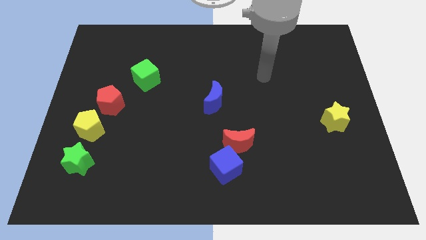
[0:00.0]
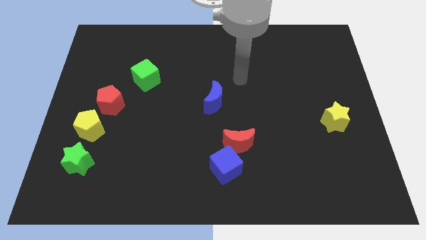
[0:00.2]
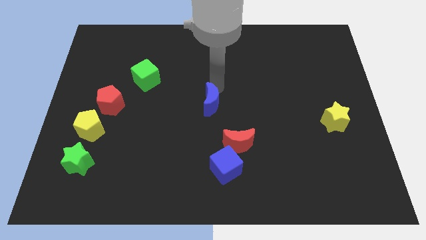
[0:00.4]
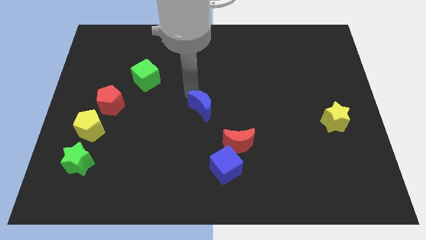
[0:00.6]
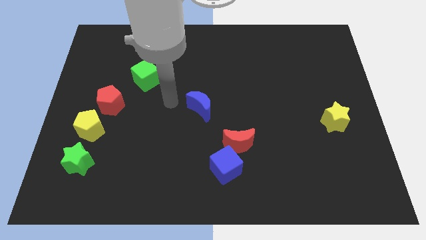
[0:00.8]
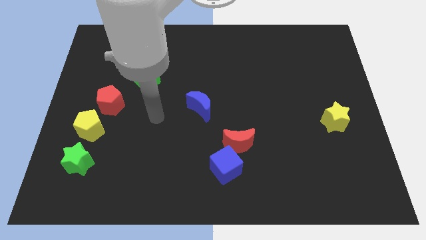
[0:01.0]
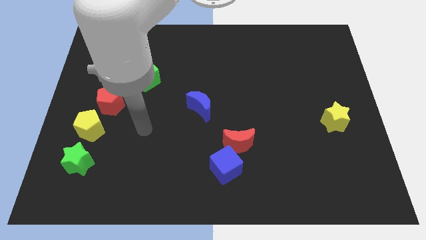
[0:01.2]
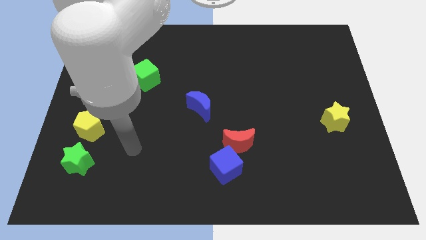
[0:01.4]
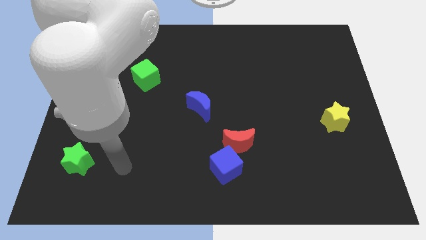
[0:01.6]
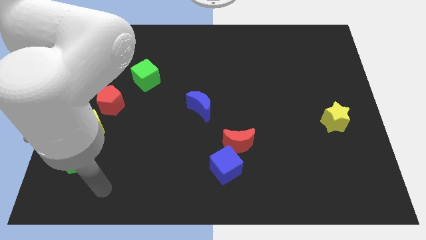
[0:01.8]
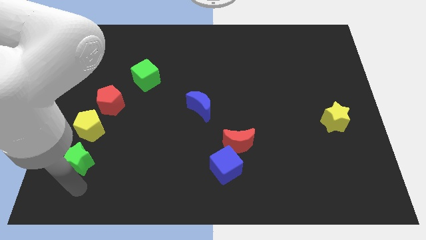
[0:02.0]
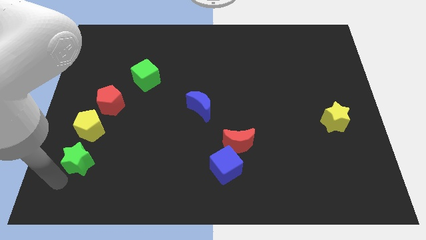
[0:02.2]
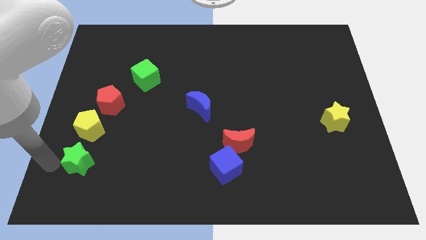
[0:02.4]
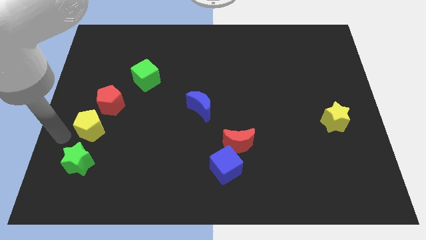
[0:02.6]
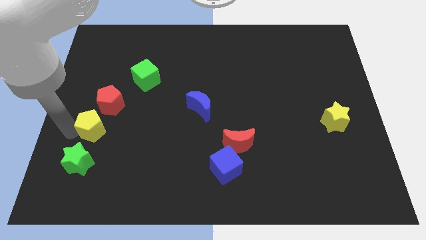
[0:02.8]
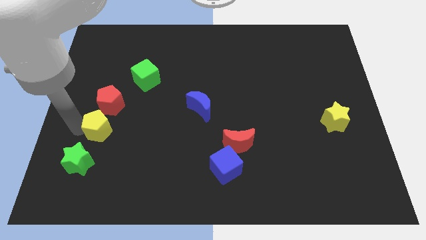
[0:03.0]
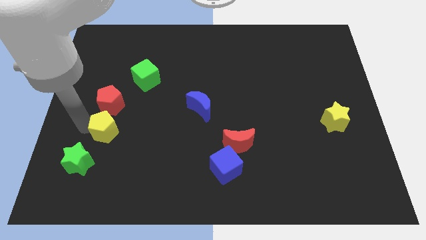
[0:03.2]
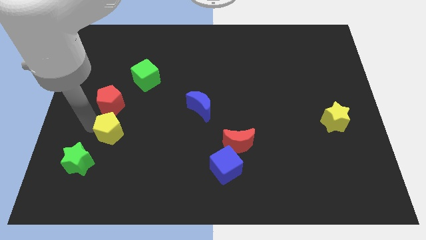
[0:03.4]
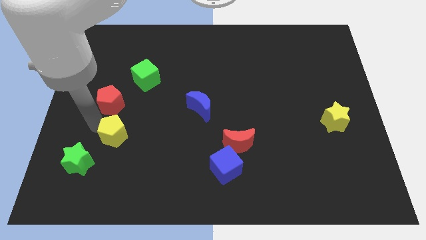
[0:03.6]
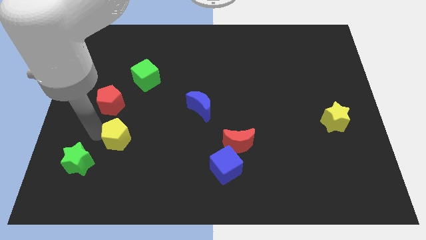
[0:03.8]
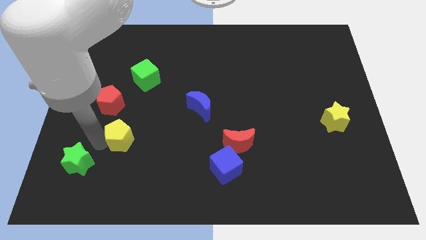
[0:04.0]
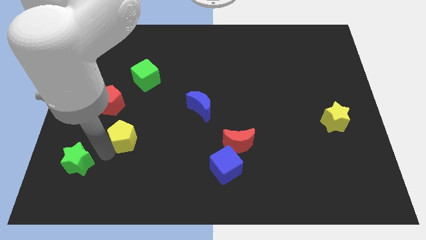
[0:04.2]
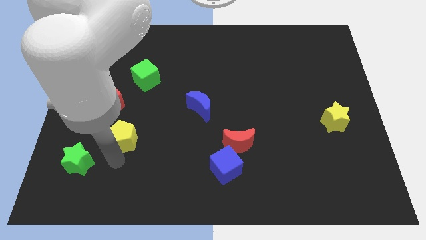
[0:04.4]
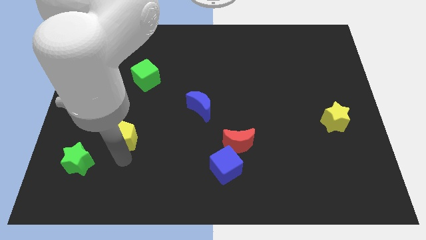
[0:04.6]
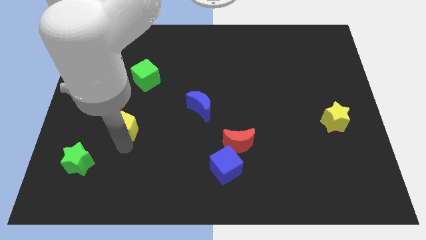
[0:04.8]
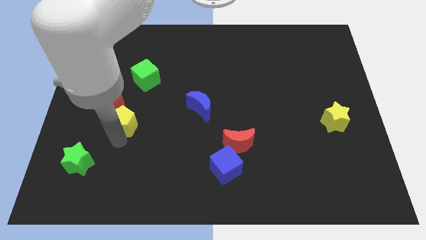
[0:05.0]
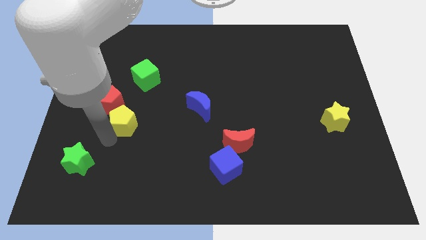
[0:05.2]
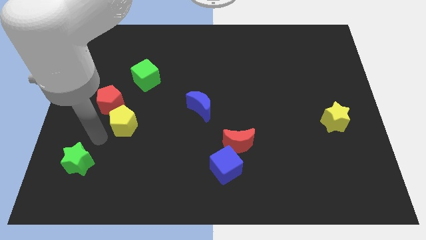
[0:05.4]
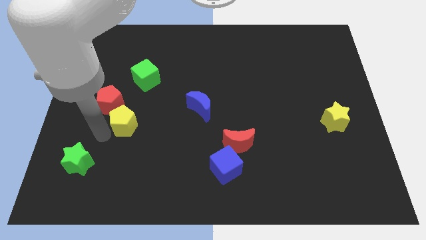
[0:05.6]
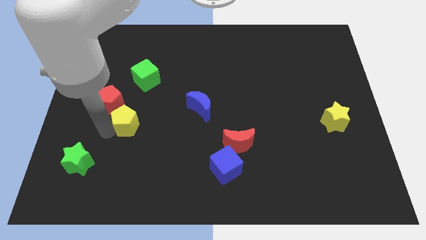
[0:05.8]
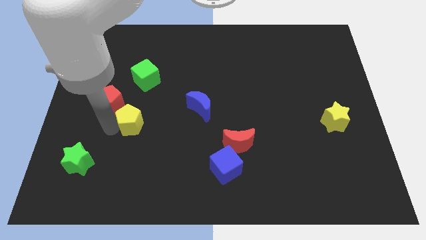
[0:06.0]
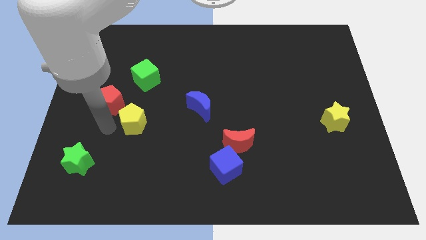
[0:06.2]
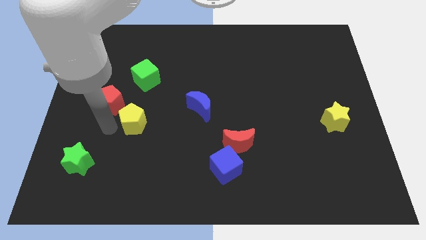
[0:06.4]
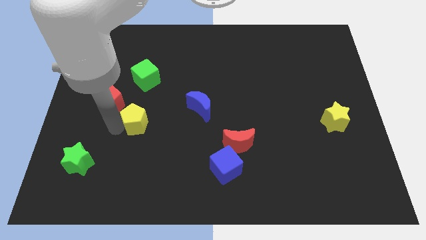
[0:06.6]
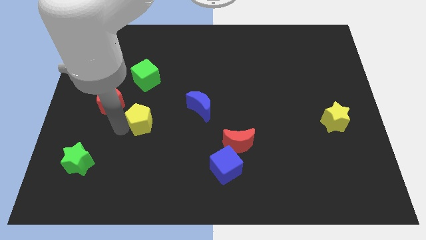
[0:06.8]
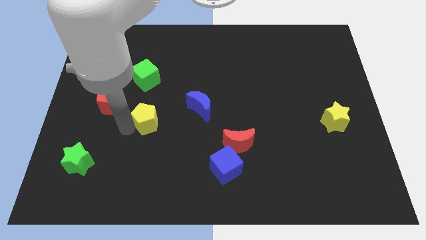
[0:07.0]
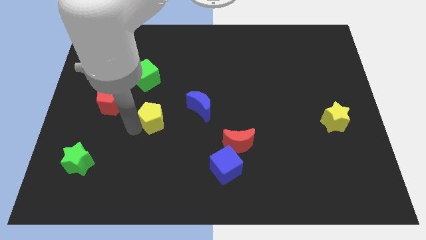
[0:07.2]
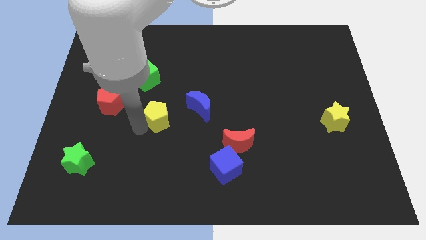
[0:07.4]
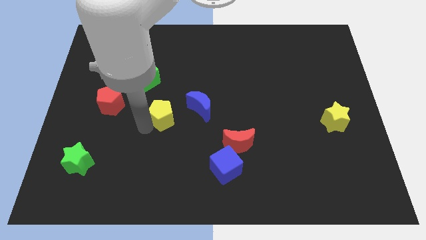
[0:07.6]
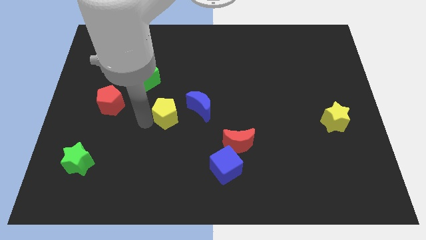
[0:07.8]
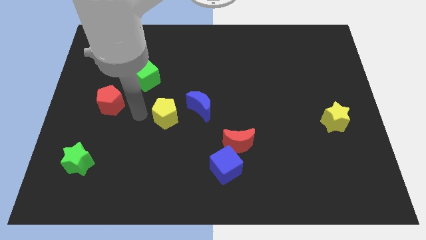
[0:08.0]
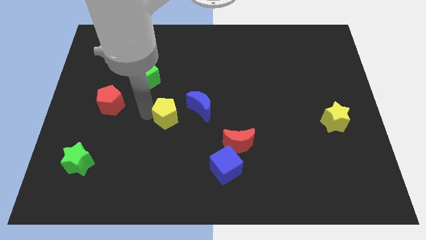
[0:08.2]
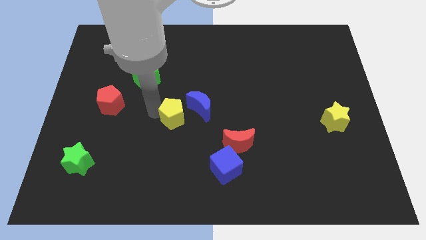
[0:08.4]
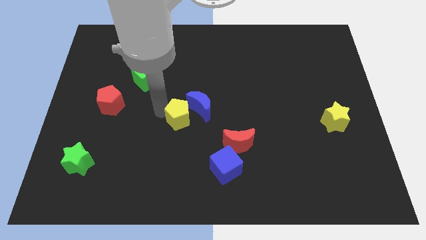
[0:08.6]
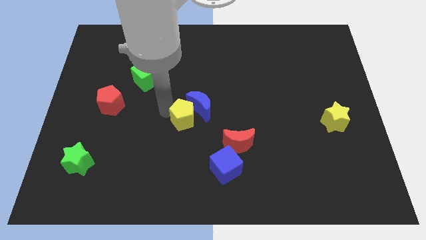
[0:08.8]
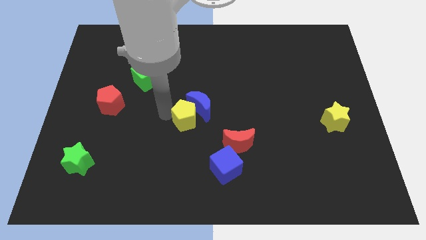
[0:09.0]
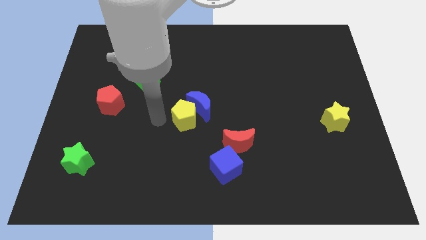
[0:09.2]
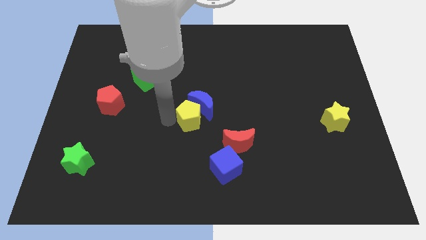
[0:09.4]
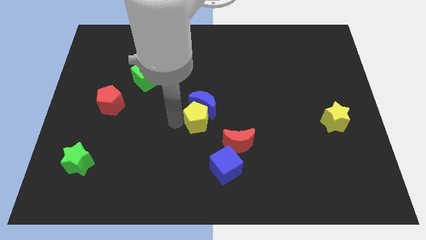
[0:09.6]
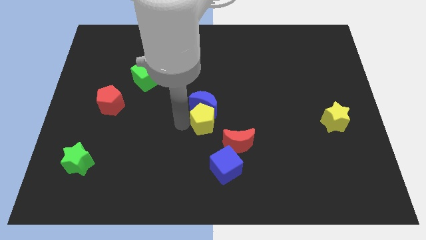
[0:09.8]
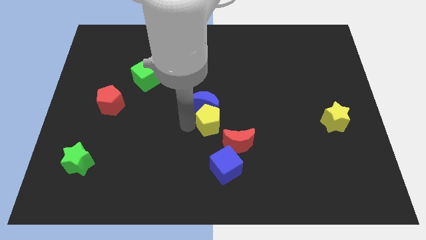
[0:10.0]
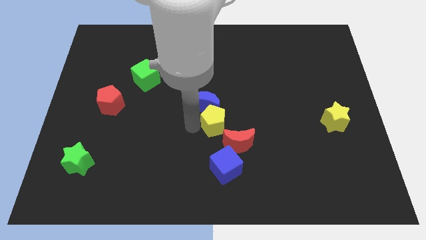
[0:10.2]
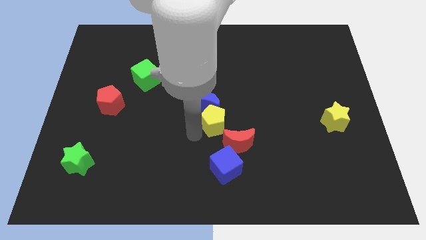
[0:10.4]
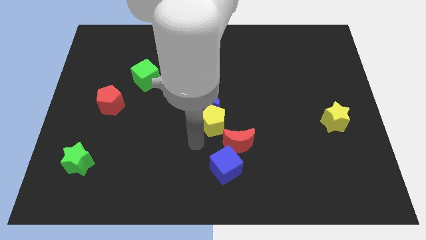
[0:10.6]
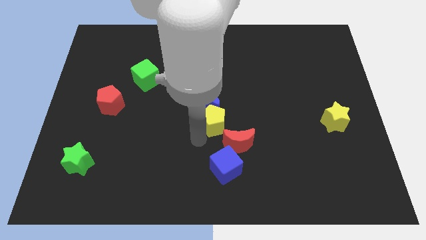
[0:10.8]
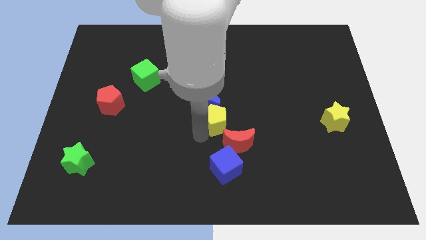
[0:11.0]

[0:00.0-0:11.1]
push the yellow pentagon to the top side of the red moon

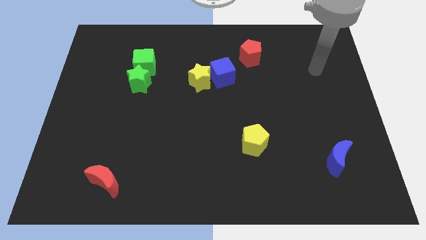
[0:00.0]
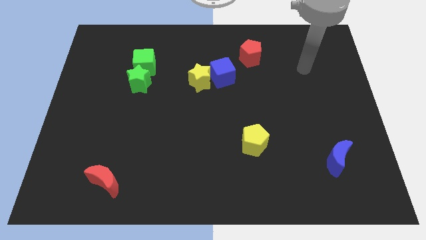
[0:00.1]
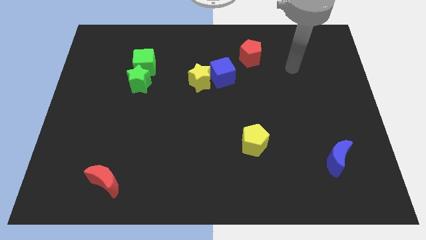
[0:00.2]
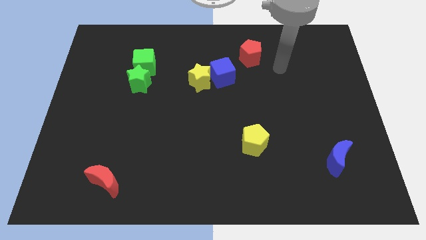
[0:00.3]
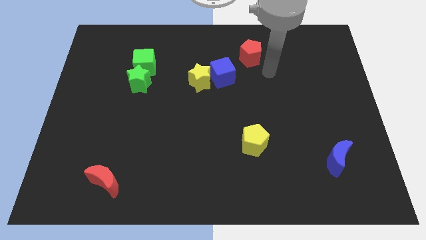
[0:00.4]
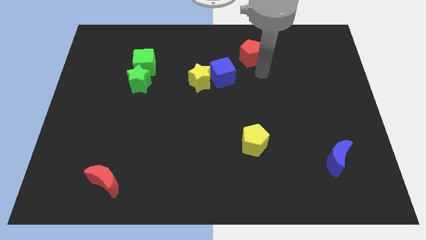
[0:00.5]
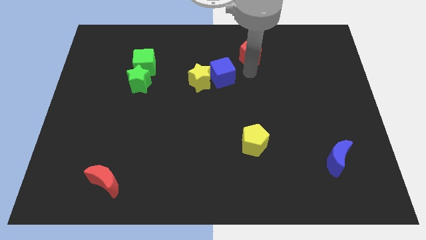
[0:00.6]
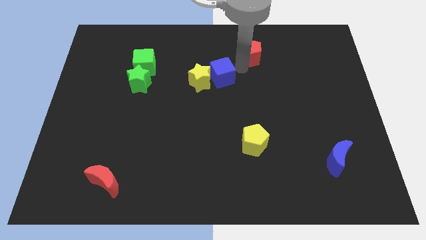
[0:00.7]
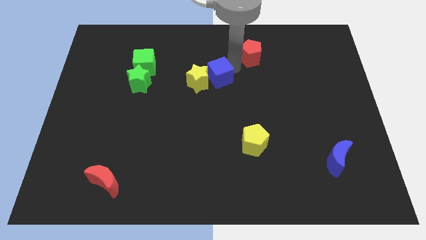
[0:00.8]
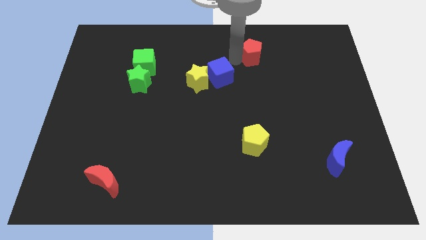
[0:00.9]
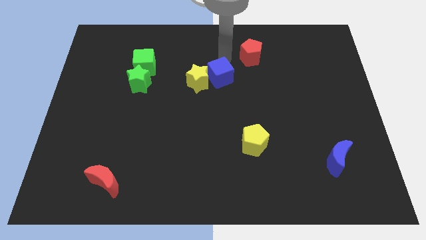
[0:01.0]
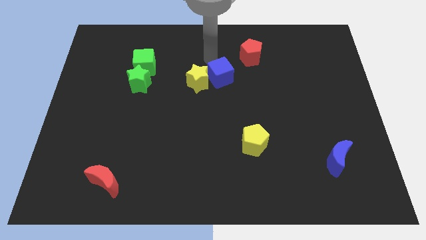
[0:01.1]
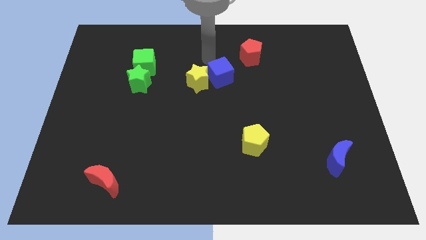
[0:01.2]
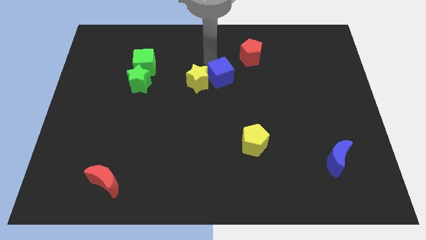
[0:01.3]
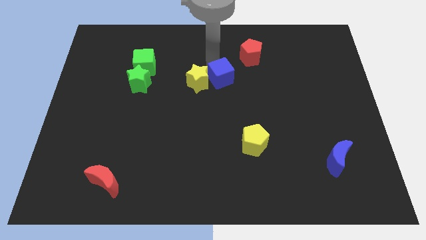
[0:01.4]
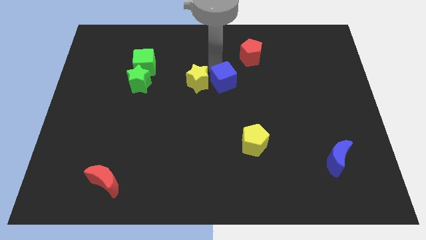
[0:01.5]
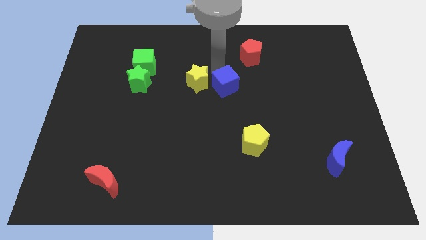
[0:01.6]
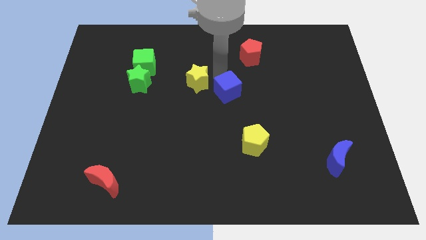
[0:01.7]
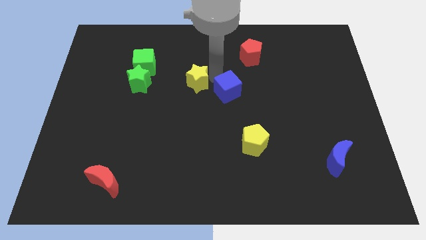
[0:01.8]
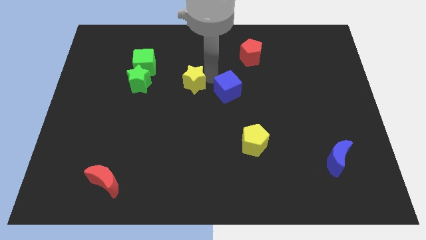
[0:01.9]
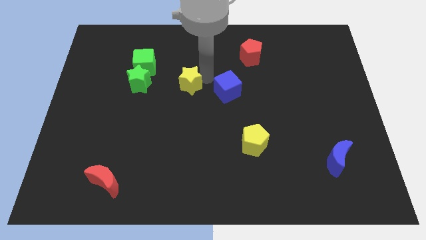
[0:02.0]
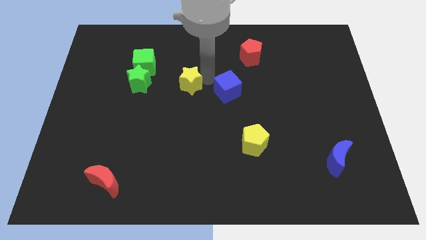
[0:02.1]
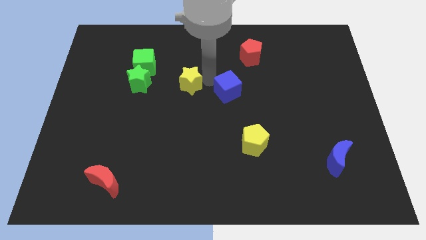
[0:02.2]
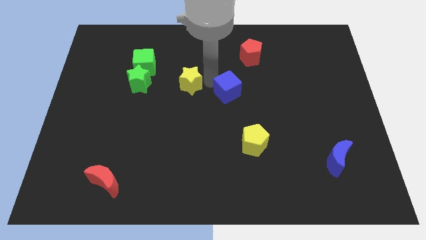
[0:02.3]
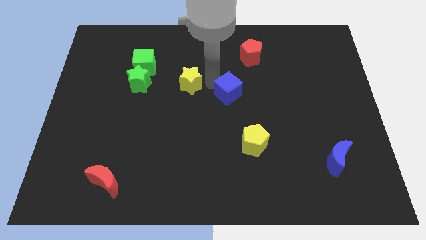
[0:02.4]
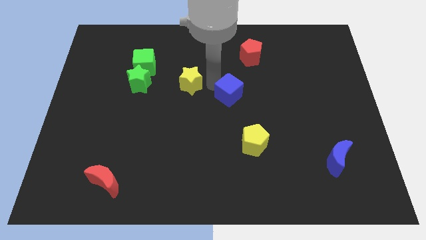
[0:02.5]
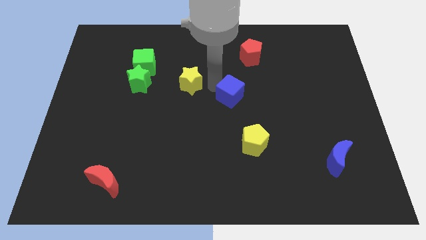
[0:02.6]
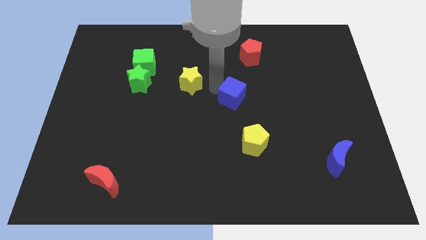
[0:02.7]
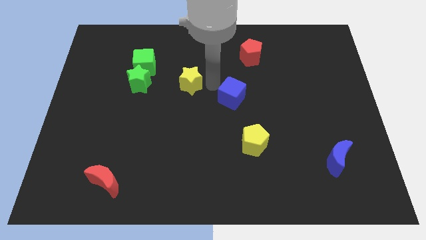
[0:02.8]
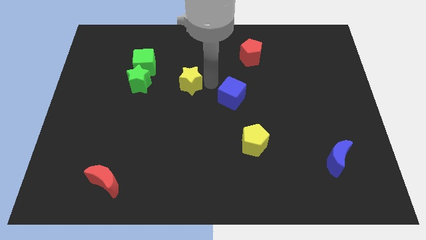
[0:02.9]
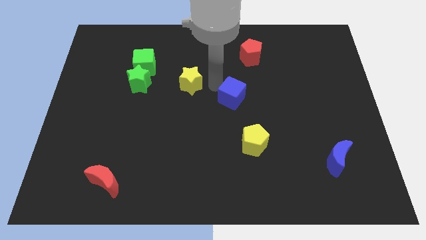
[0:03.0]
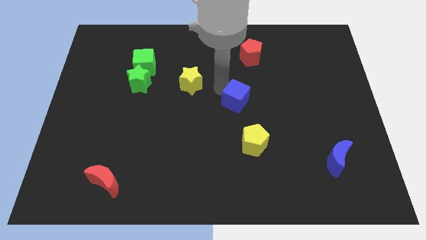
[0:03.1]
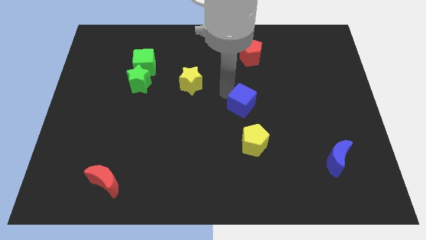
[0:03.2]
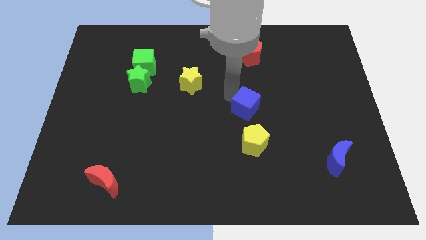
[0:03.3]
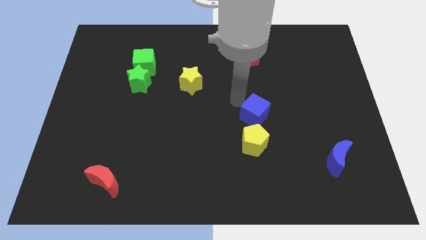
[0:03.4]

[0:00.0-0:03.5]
push the blue cube to the top right side of the yellow pentagon
